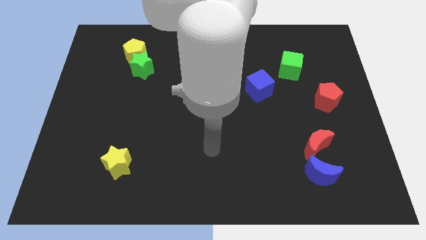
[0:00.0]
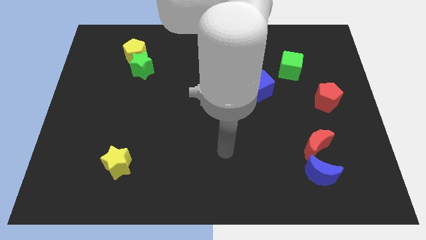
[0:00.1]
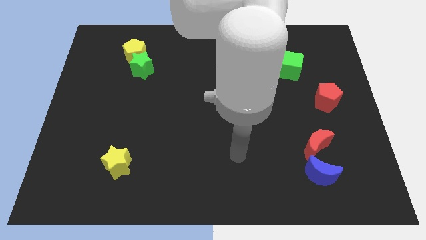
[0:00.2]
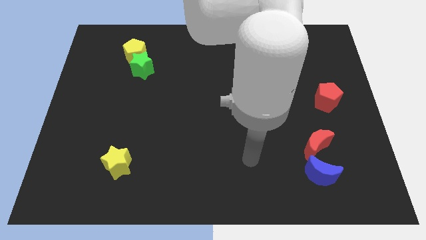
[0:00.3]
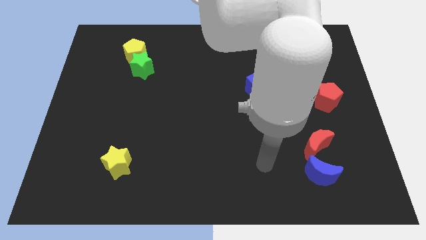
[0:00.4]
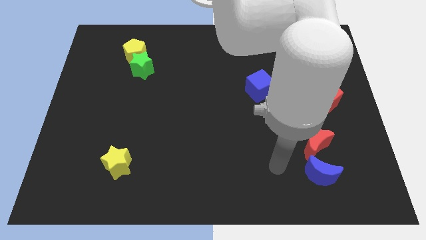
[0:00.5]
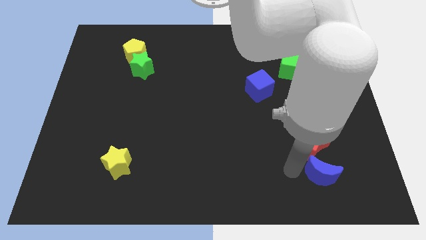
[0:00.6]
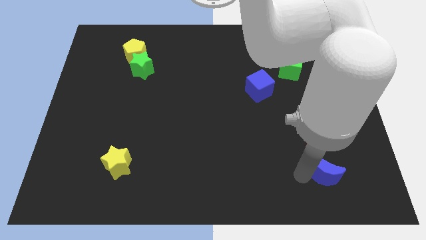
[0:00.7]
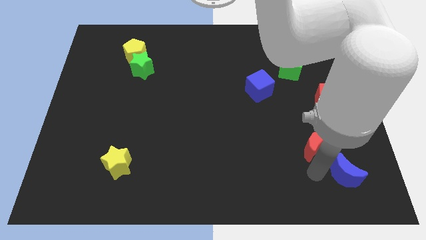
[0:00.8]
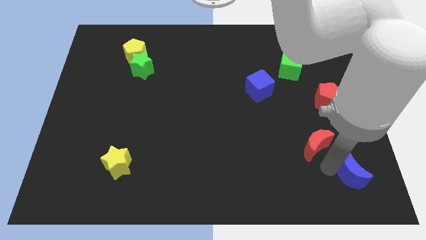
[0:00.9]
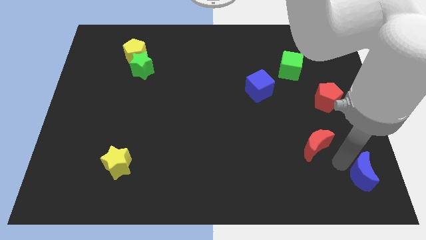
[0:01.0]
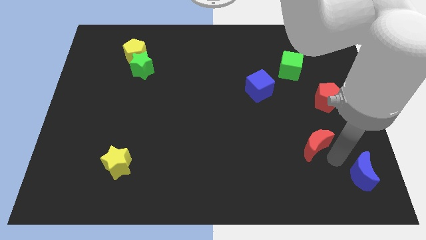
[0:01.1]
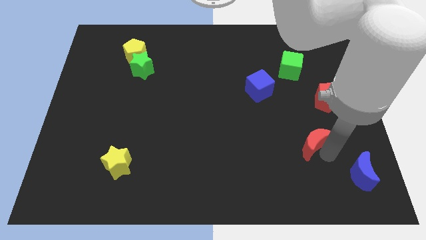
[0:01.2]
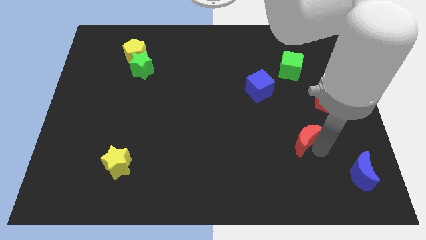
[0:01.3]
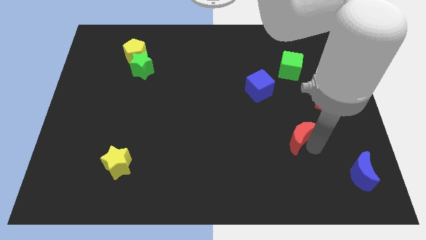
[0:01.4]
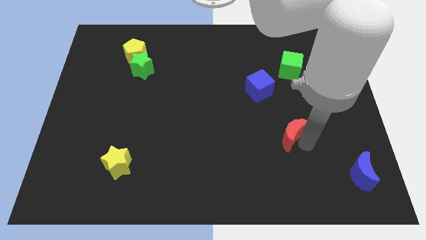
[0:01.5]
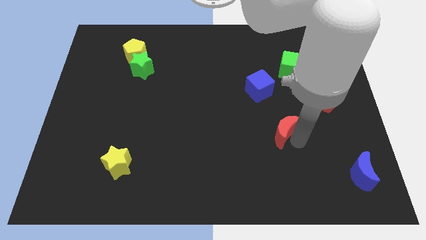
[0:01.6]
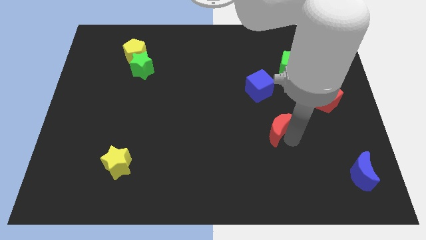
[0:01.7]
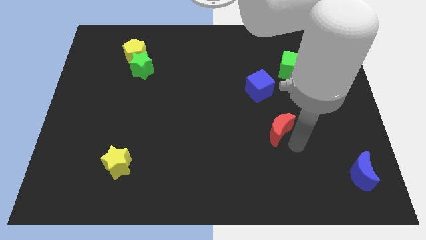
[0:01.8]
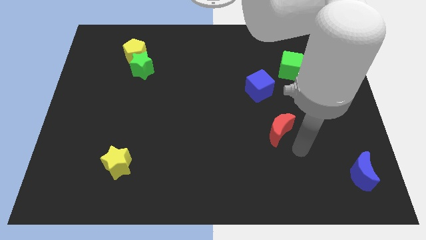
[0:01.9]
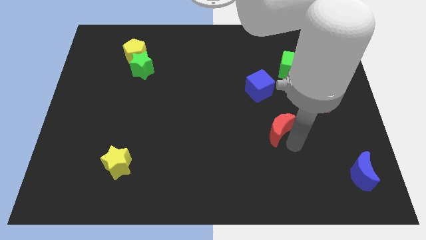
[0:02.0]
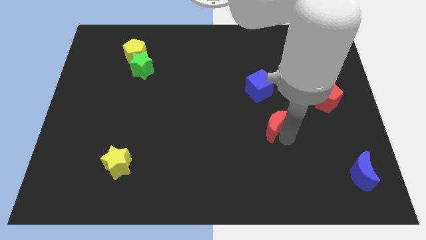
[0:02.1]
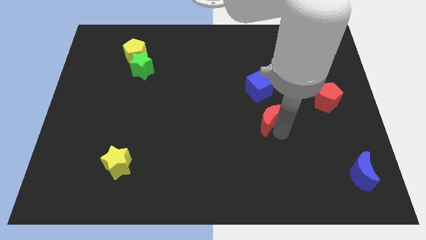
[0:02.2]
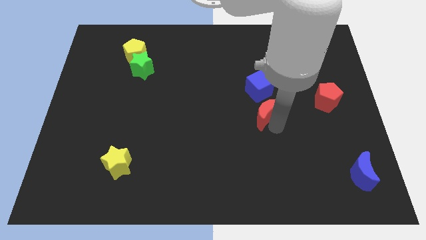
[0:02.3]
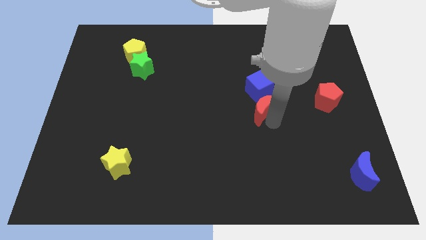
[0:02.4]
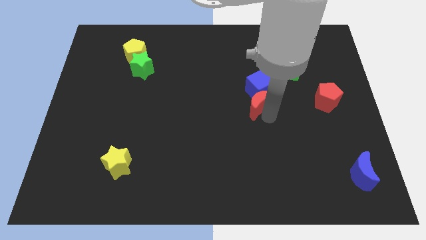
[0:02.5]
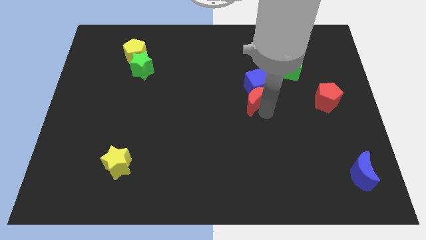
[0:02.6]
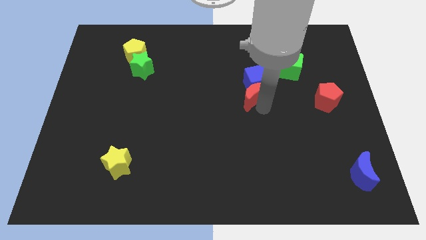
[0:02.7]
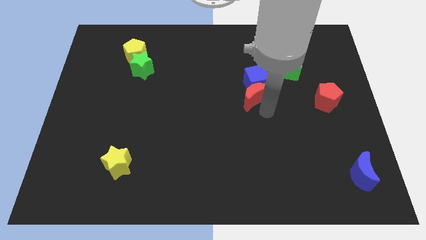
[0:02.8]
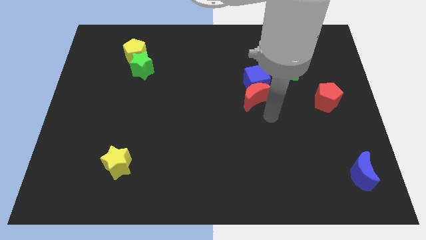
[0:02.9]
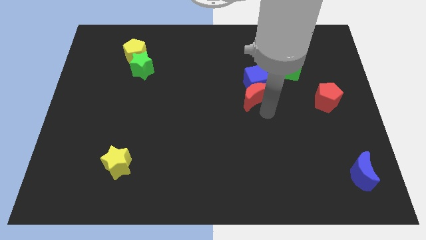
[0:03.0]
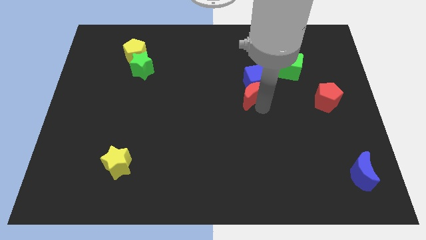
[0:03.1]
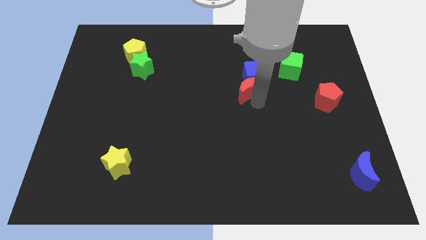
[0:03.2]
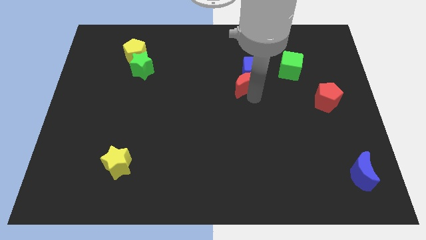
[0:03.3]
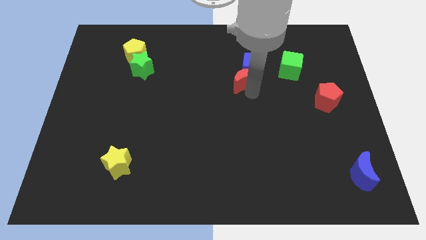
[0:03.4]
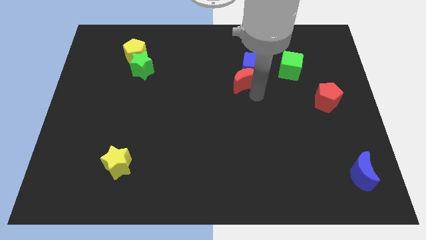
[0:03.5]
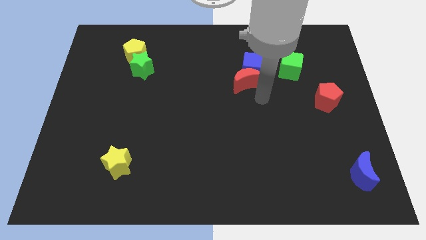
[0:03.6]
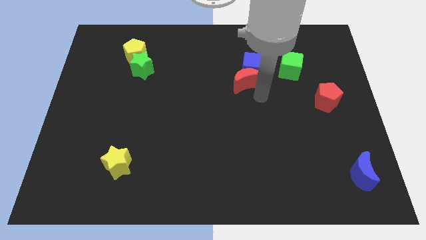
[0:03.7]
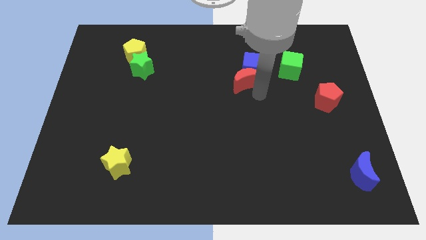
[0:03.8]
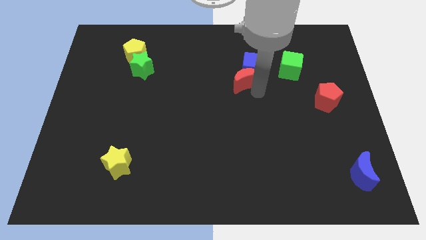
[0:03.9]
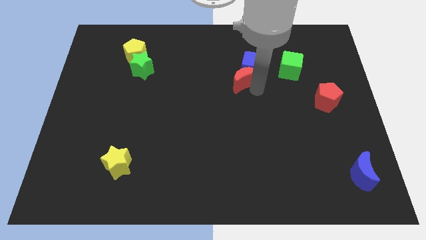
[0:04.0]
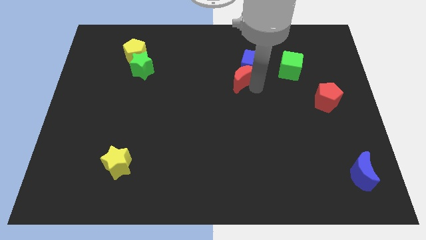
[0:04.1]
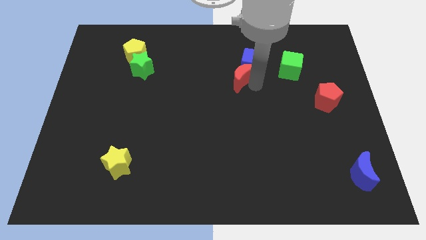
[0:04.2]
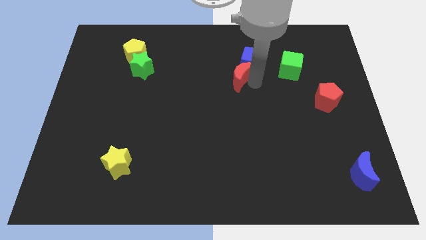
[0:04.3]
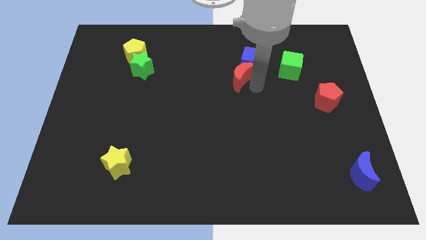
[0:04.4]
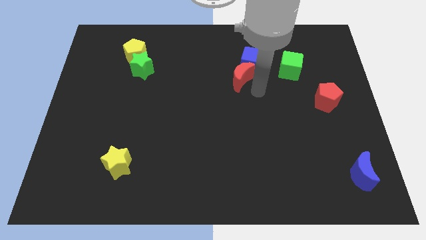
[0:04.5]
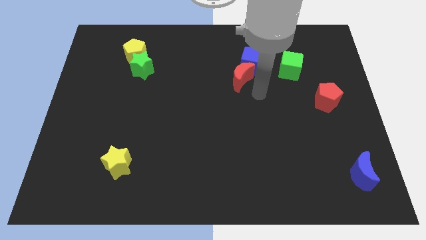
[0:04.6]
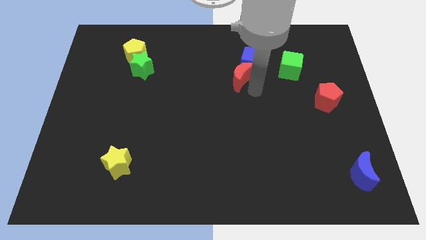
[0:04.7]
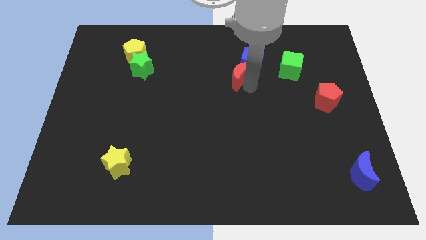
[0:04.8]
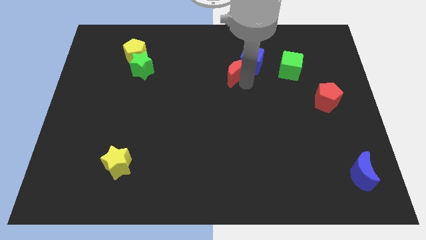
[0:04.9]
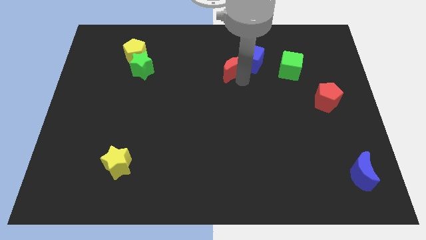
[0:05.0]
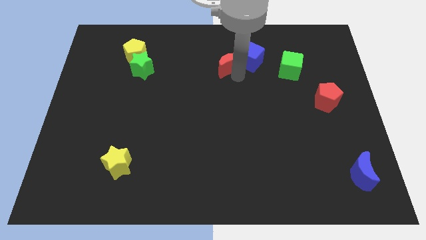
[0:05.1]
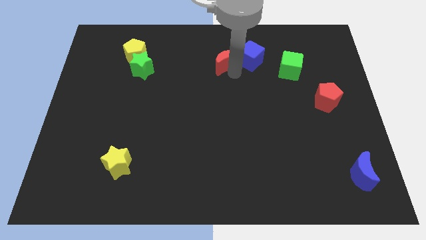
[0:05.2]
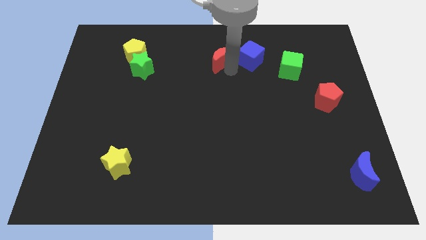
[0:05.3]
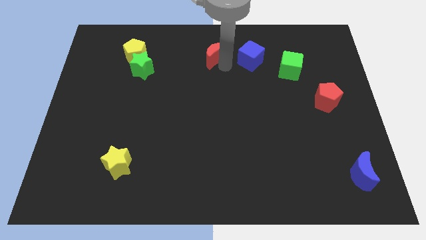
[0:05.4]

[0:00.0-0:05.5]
push the red moon to the towards your base

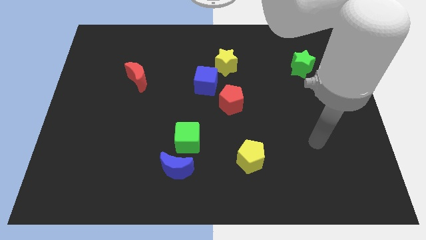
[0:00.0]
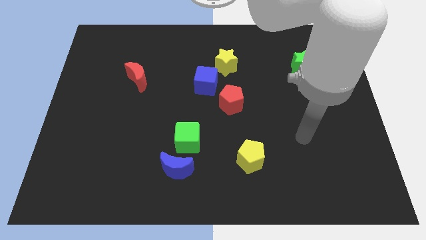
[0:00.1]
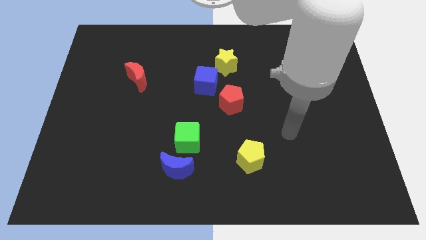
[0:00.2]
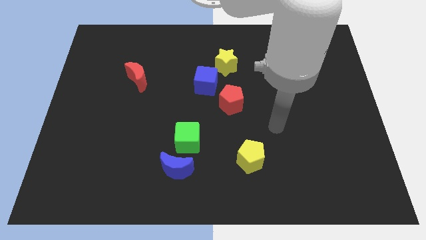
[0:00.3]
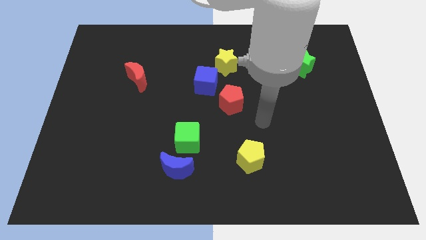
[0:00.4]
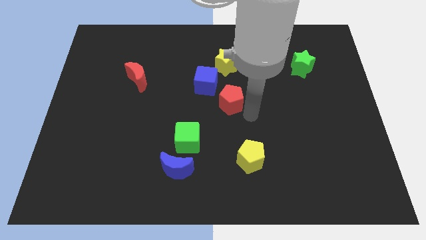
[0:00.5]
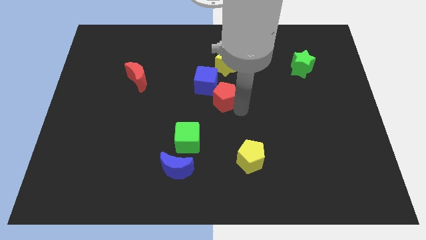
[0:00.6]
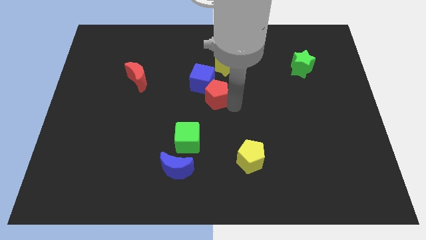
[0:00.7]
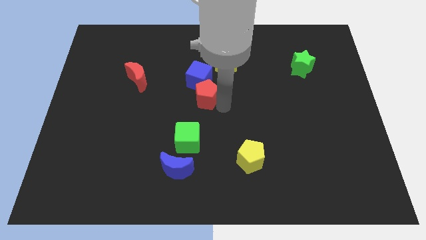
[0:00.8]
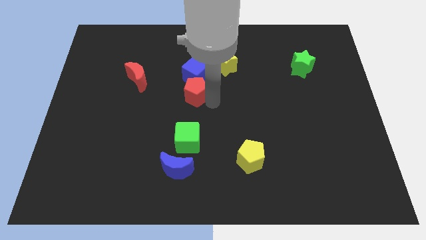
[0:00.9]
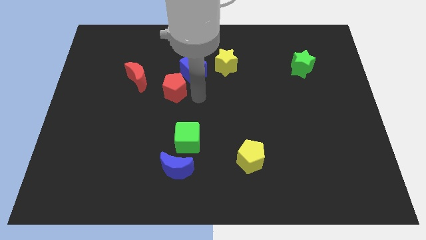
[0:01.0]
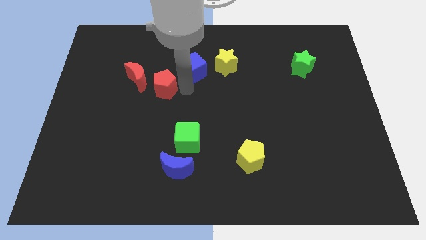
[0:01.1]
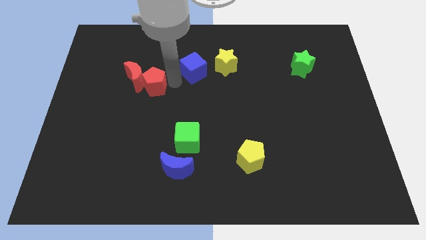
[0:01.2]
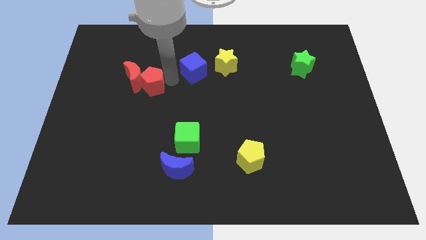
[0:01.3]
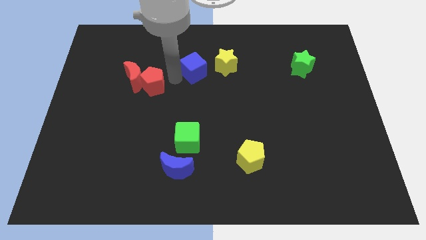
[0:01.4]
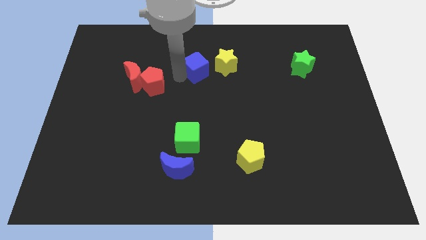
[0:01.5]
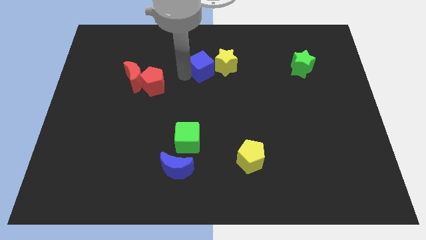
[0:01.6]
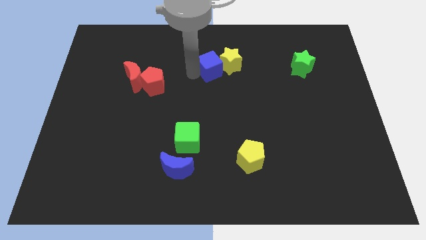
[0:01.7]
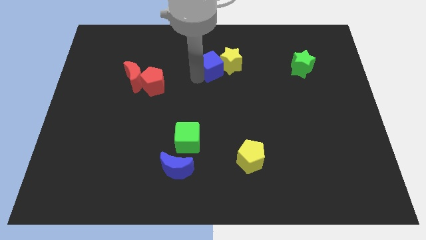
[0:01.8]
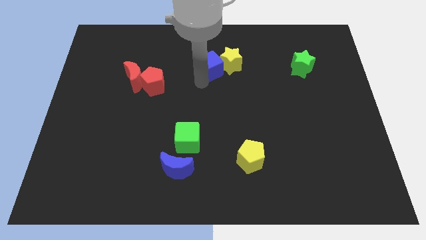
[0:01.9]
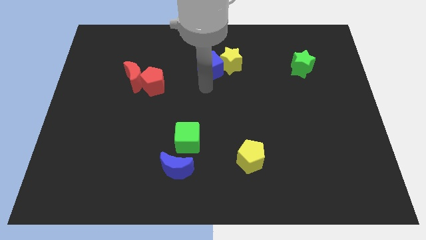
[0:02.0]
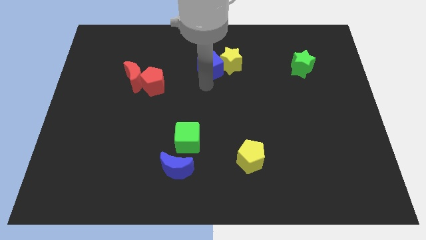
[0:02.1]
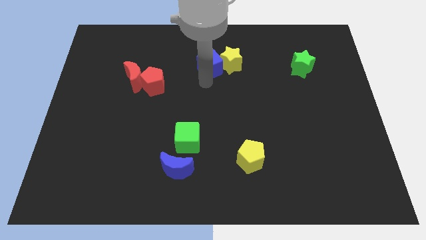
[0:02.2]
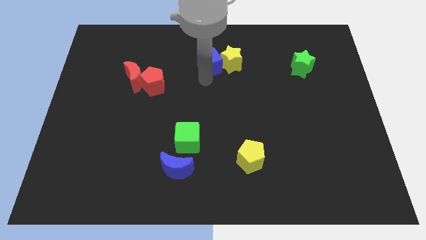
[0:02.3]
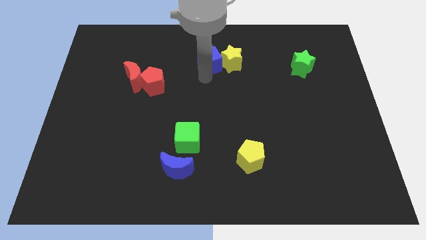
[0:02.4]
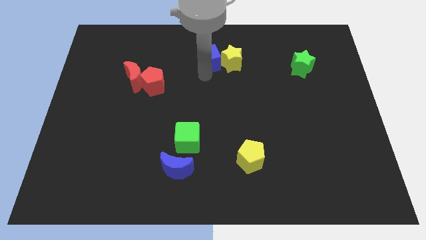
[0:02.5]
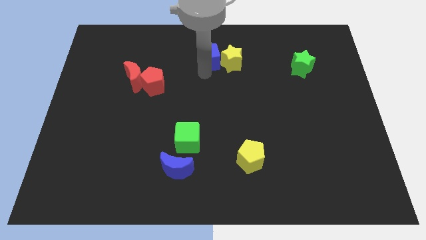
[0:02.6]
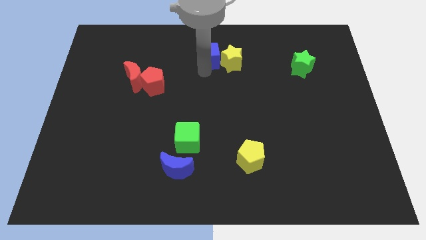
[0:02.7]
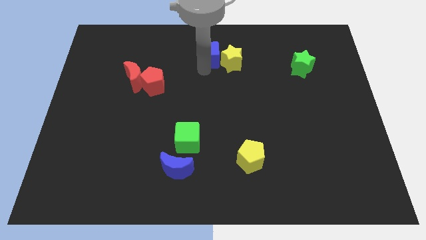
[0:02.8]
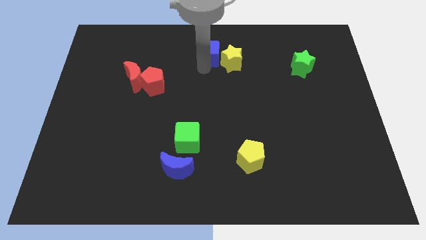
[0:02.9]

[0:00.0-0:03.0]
put the blue cube to the towards your base

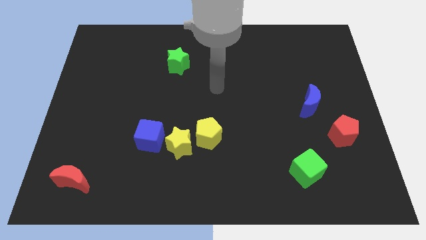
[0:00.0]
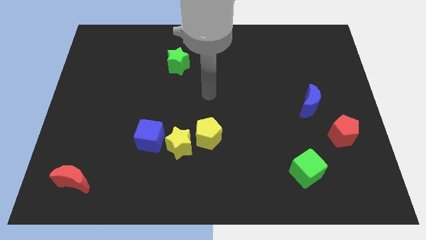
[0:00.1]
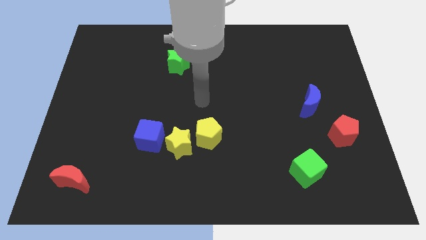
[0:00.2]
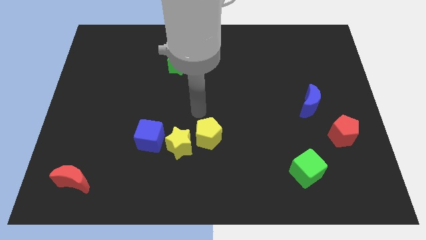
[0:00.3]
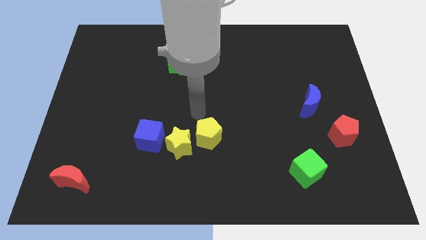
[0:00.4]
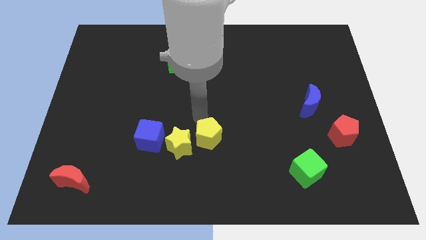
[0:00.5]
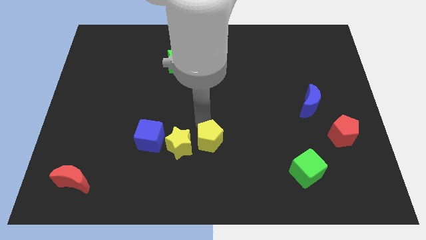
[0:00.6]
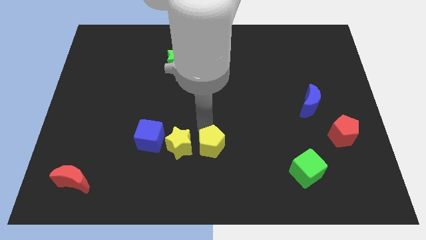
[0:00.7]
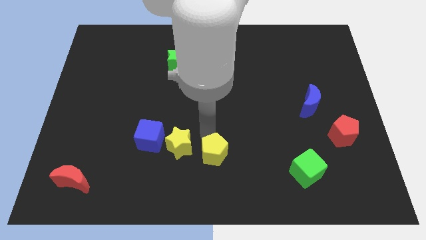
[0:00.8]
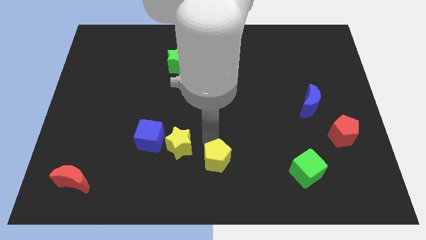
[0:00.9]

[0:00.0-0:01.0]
push the yellow pentagon to the bottom side
